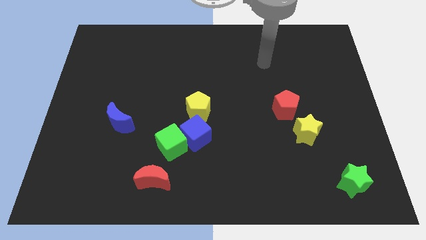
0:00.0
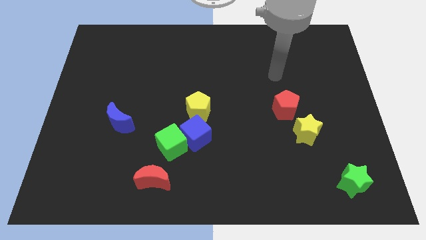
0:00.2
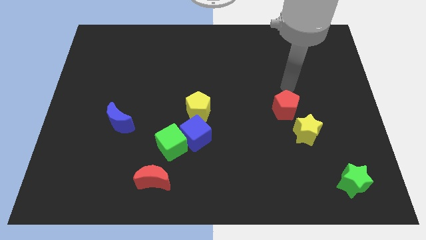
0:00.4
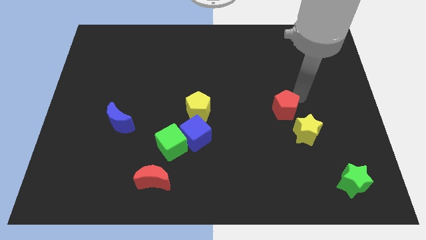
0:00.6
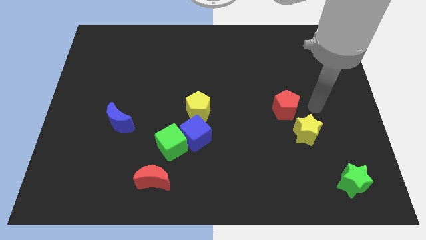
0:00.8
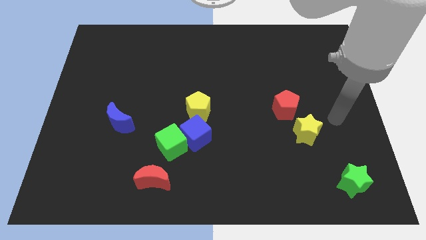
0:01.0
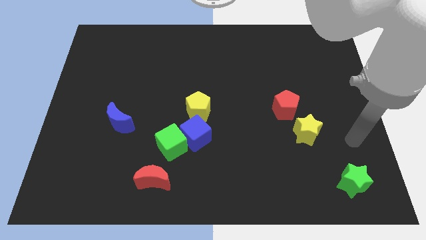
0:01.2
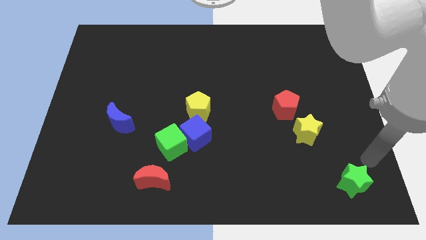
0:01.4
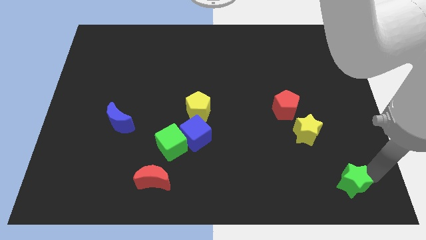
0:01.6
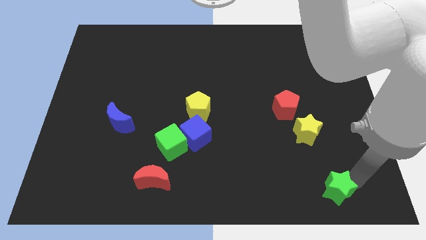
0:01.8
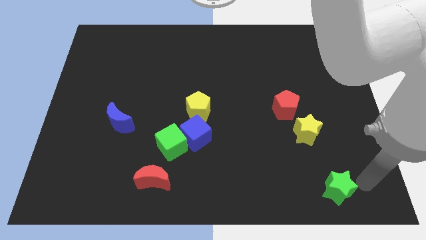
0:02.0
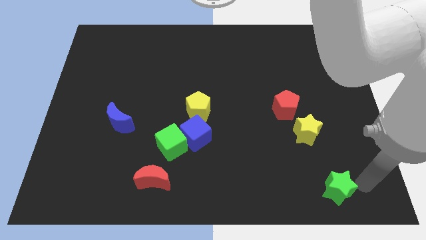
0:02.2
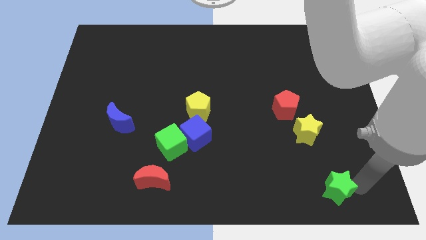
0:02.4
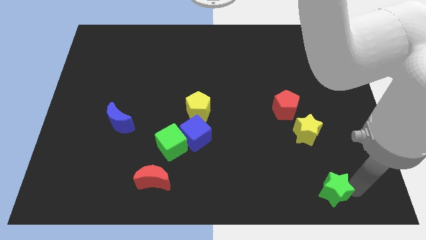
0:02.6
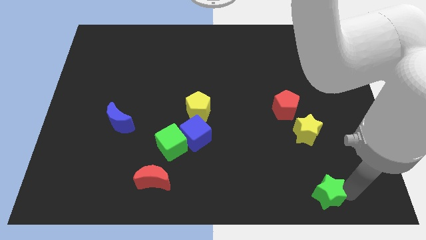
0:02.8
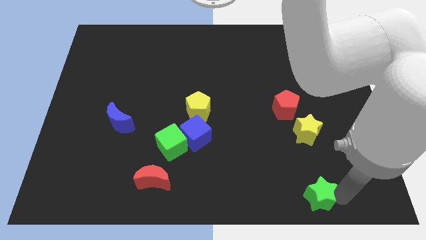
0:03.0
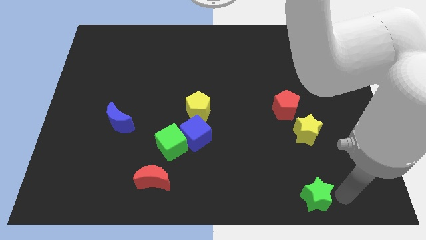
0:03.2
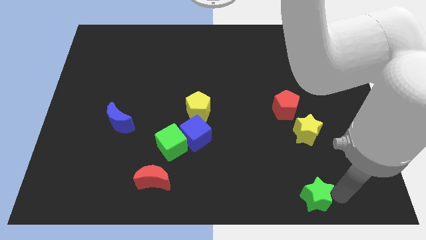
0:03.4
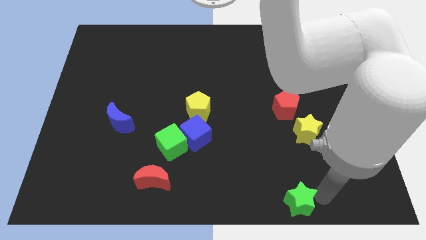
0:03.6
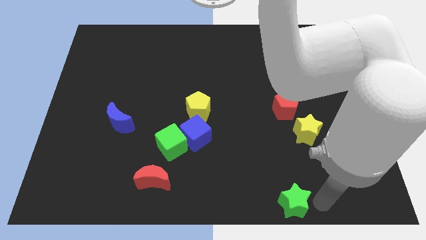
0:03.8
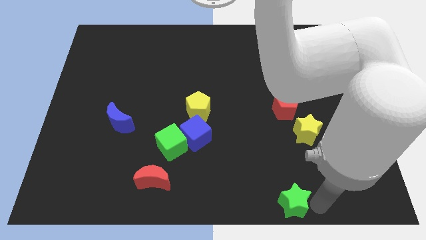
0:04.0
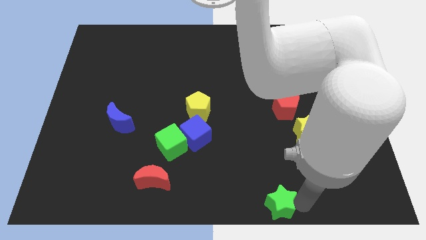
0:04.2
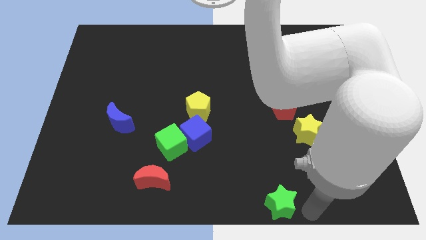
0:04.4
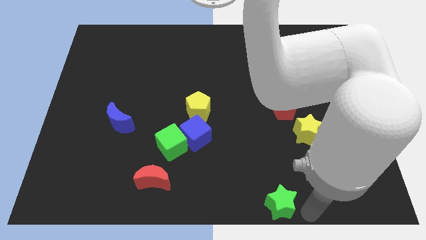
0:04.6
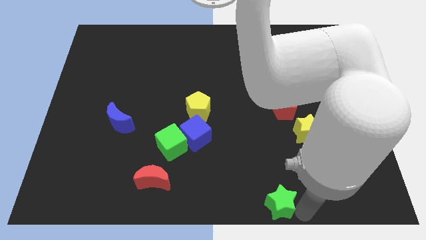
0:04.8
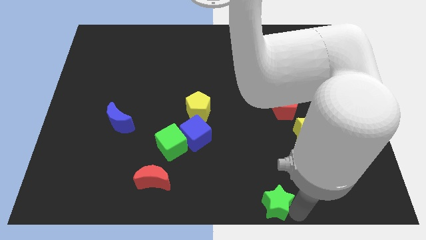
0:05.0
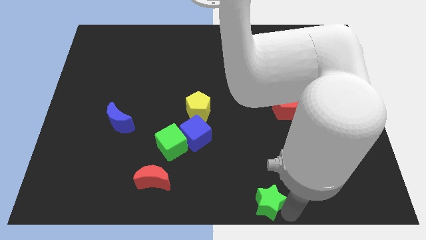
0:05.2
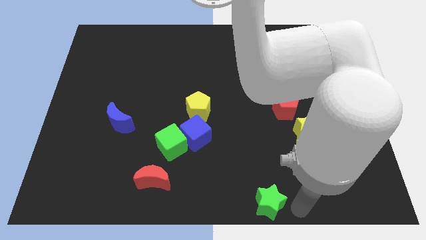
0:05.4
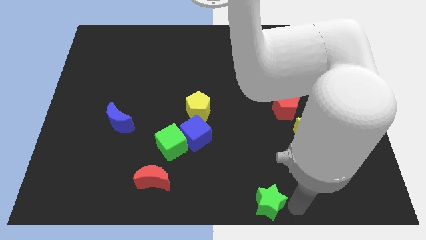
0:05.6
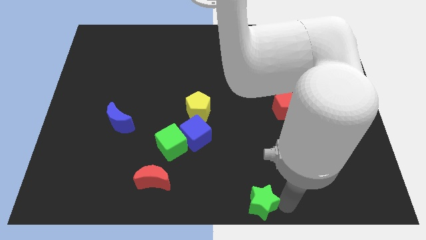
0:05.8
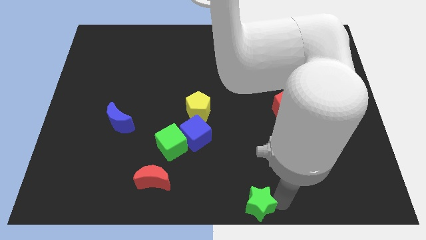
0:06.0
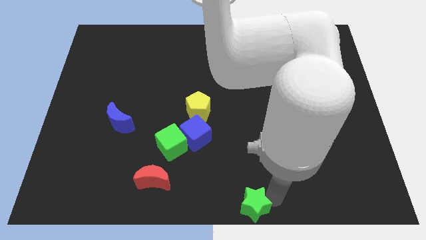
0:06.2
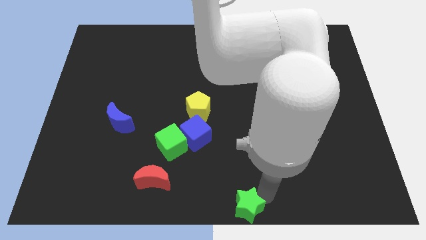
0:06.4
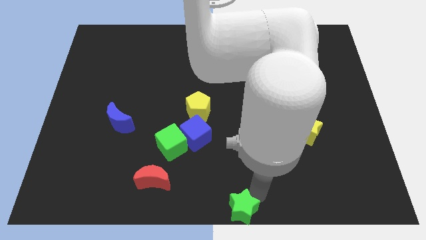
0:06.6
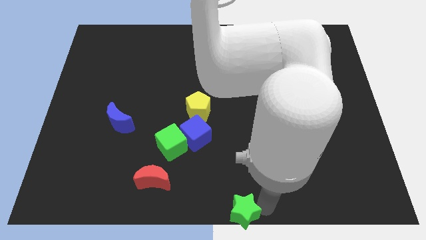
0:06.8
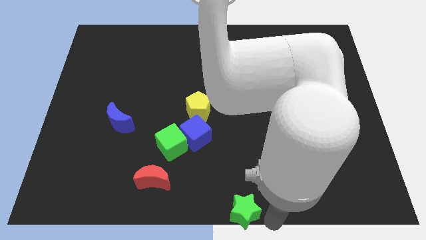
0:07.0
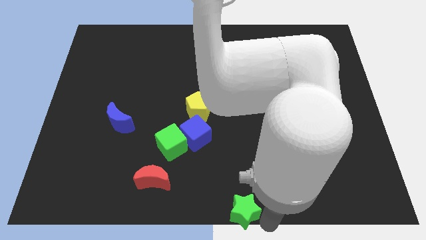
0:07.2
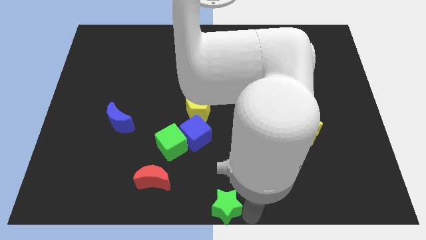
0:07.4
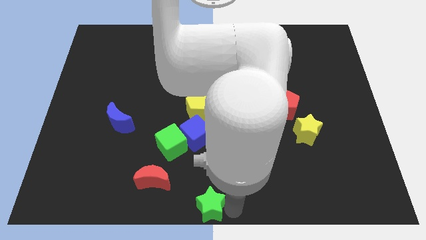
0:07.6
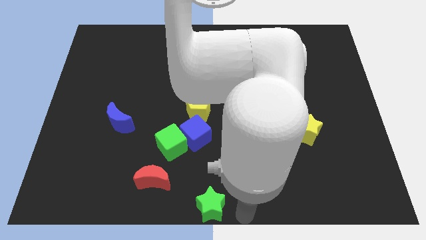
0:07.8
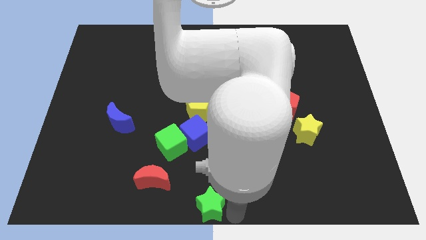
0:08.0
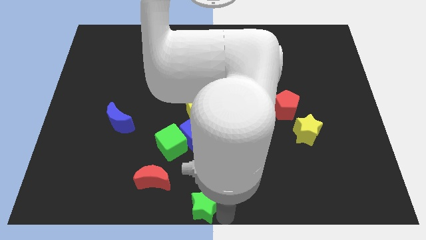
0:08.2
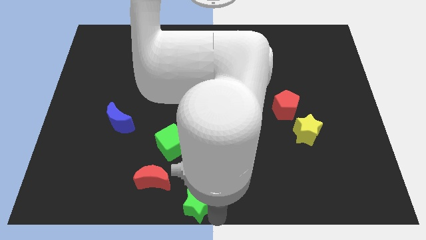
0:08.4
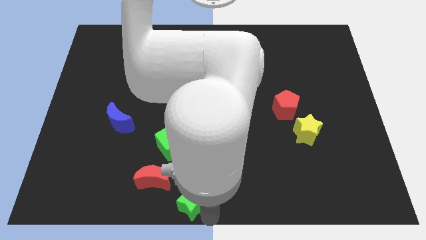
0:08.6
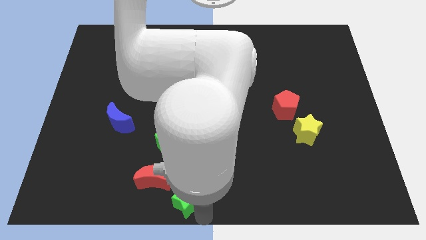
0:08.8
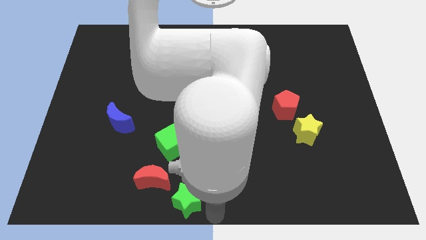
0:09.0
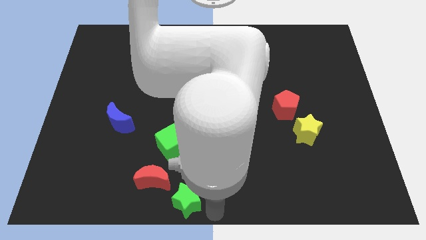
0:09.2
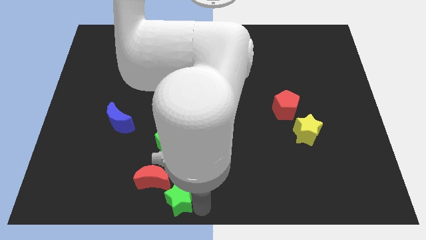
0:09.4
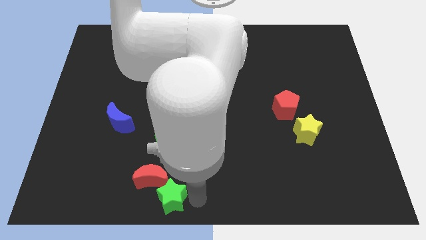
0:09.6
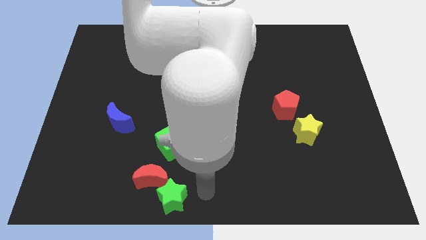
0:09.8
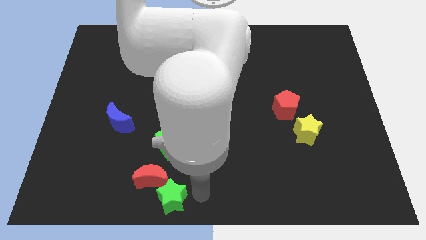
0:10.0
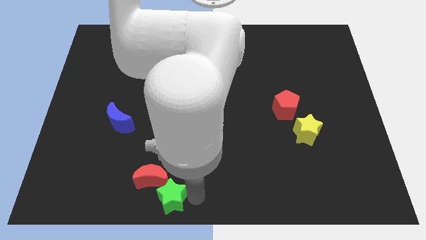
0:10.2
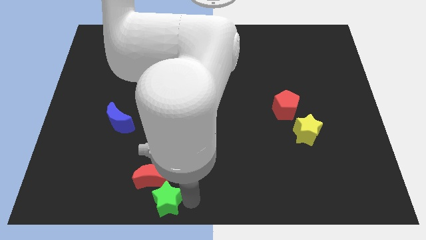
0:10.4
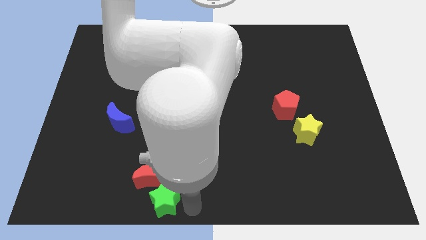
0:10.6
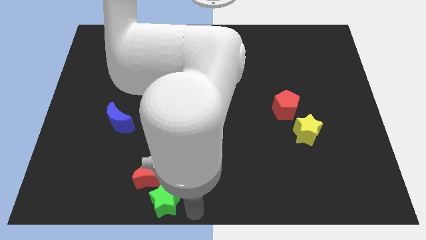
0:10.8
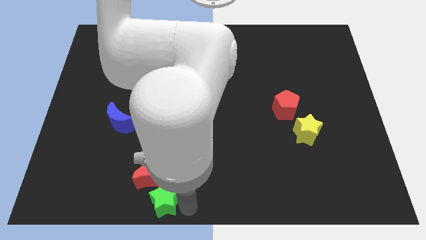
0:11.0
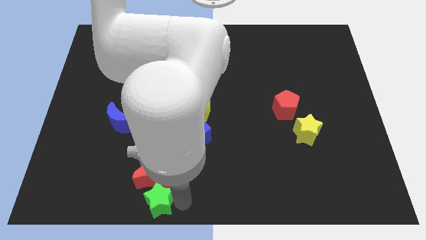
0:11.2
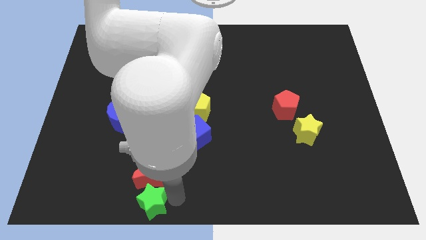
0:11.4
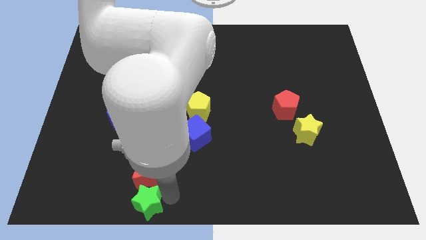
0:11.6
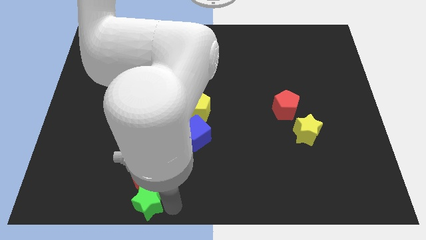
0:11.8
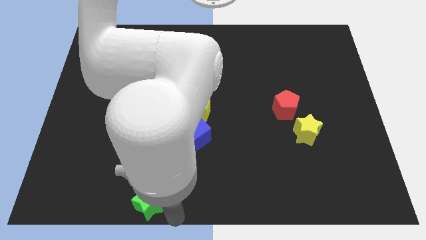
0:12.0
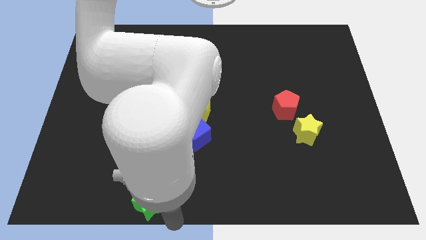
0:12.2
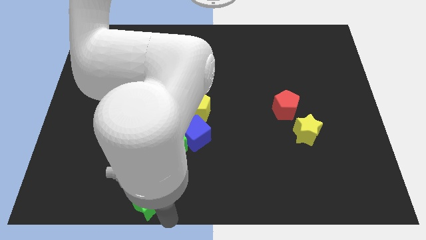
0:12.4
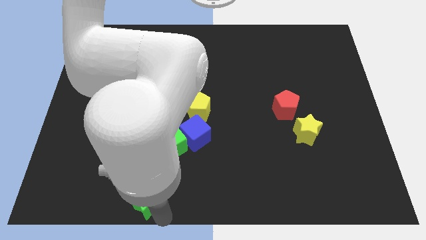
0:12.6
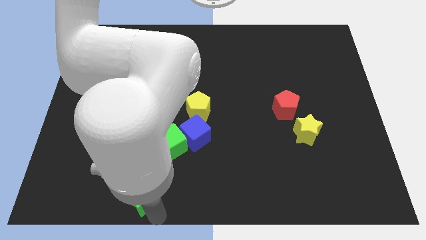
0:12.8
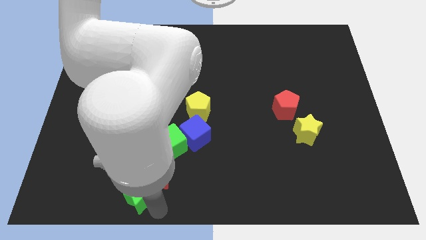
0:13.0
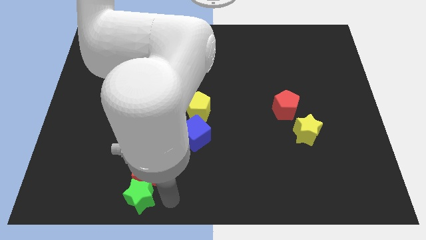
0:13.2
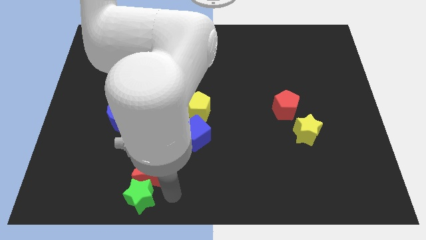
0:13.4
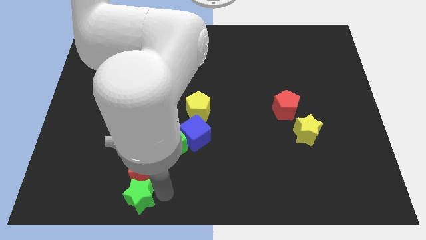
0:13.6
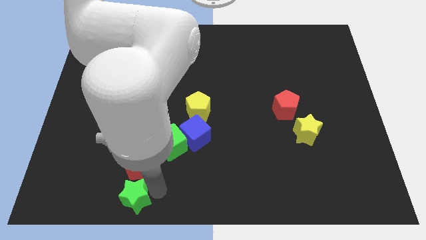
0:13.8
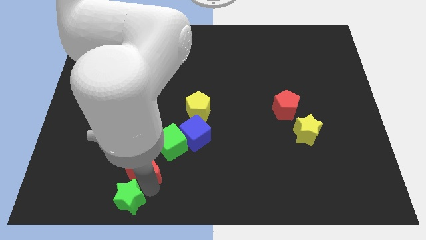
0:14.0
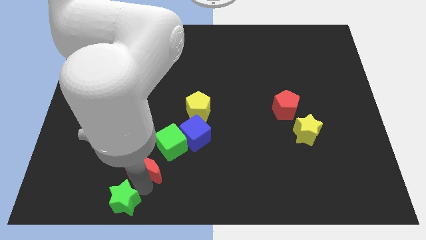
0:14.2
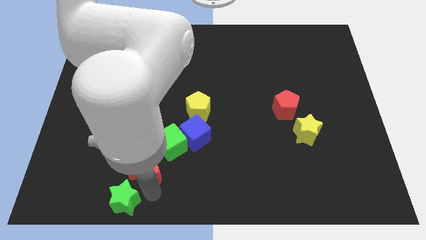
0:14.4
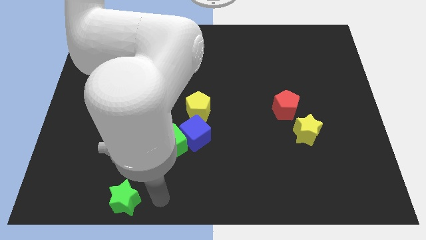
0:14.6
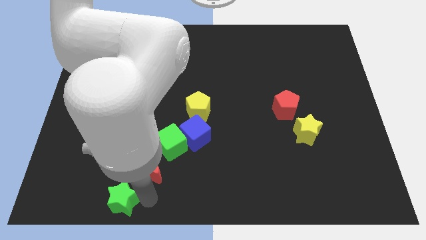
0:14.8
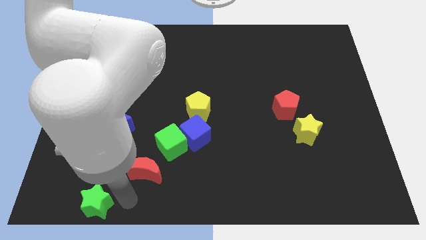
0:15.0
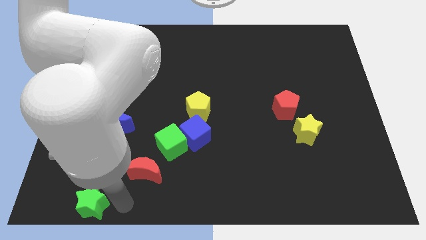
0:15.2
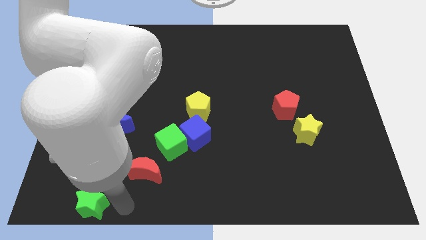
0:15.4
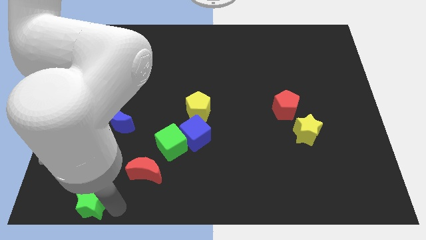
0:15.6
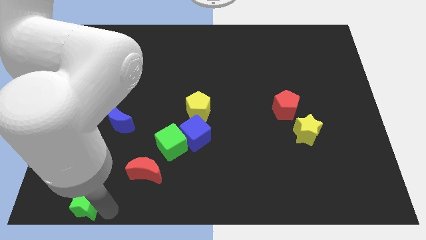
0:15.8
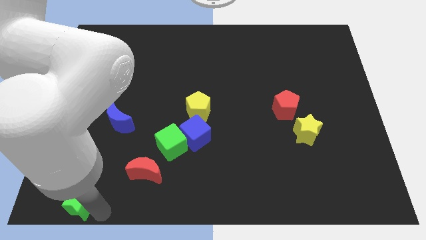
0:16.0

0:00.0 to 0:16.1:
slide the green star to the bottom left
